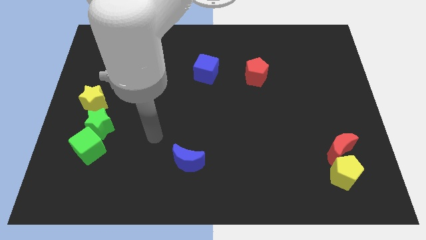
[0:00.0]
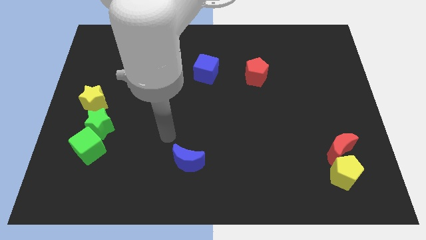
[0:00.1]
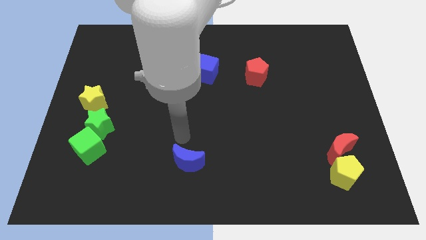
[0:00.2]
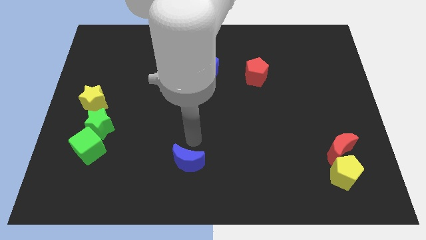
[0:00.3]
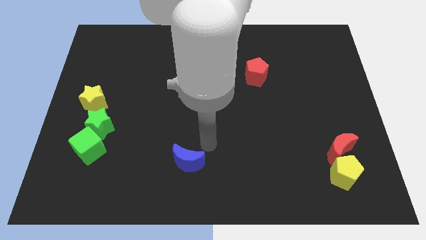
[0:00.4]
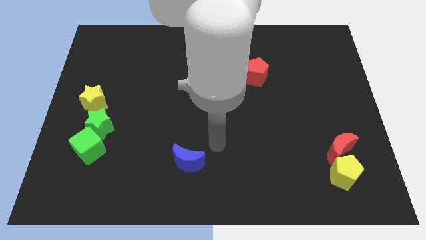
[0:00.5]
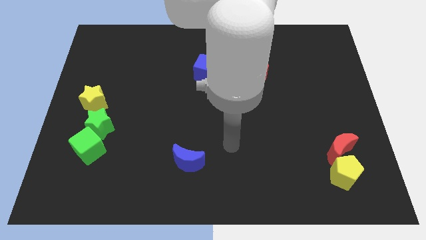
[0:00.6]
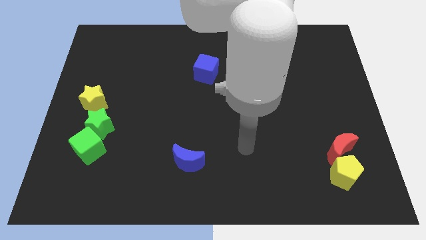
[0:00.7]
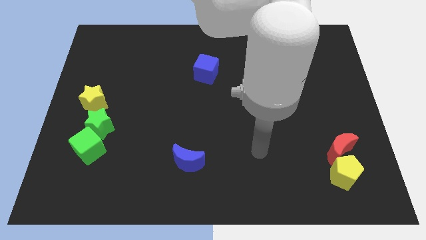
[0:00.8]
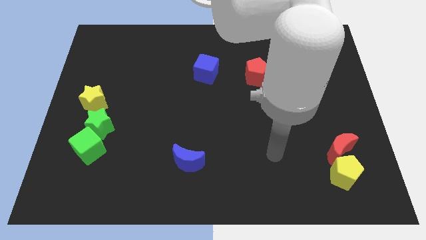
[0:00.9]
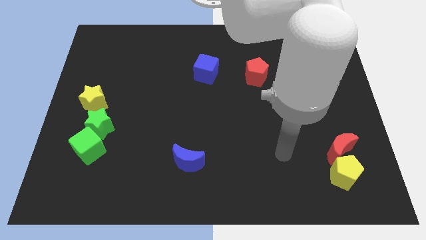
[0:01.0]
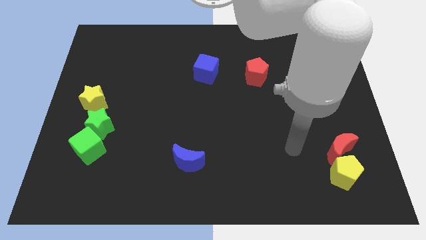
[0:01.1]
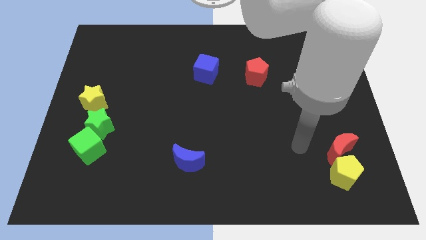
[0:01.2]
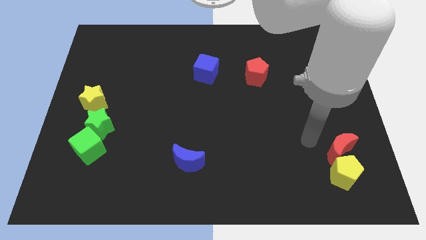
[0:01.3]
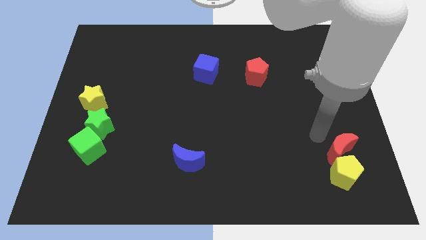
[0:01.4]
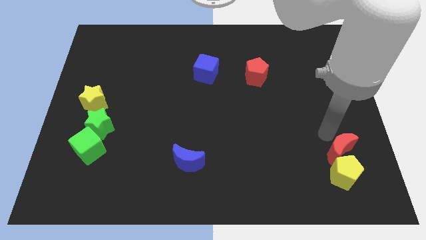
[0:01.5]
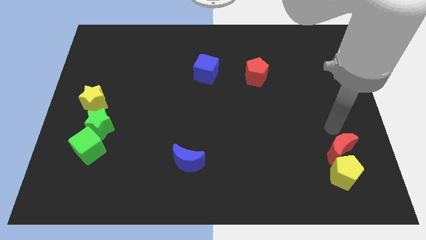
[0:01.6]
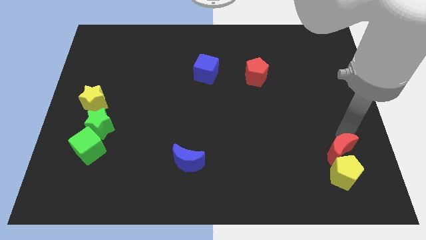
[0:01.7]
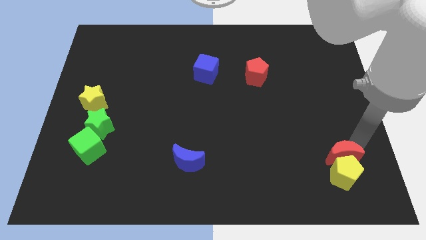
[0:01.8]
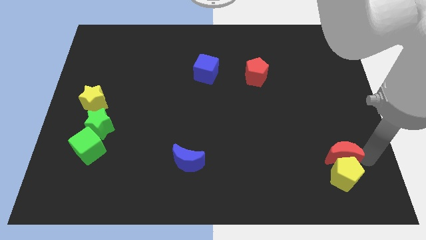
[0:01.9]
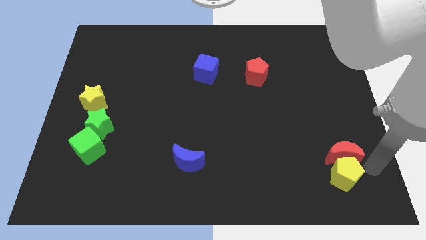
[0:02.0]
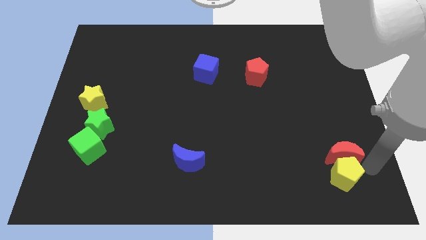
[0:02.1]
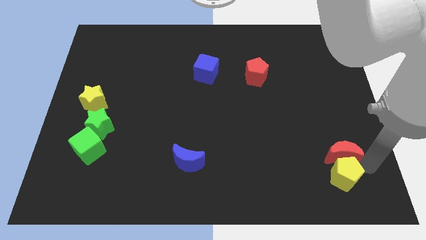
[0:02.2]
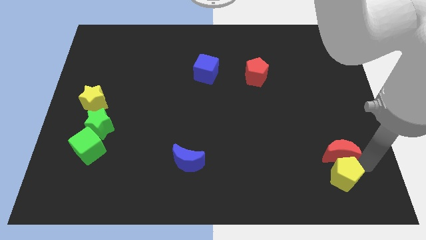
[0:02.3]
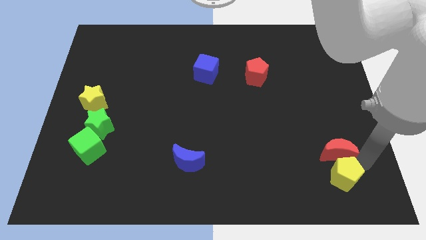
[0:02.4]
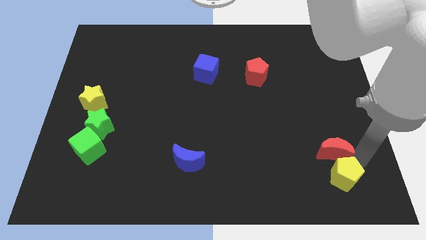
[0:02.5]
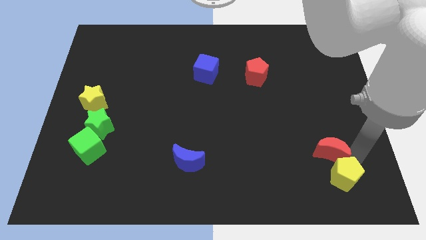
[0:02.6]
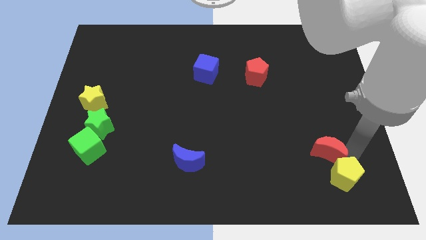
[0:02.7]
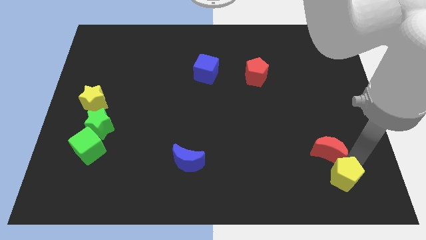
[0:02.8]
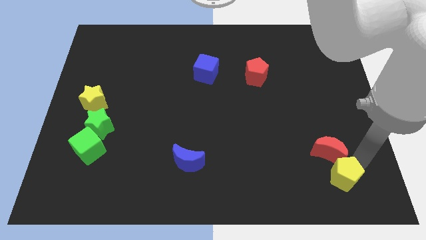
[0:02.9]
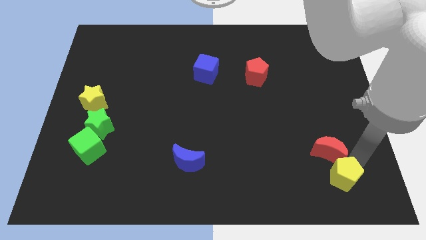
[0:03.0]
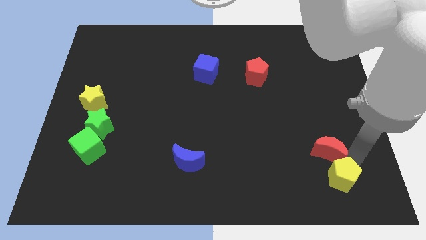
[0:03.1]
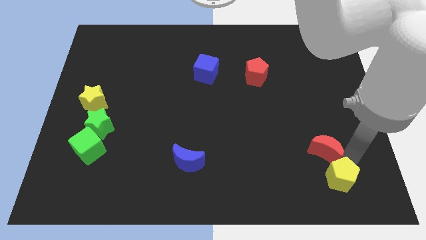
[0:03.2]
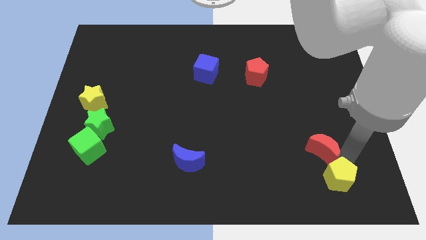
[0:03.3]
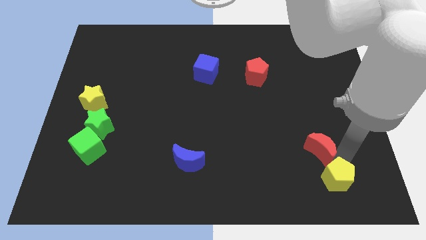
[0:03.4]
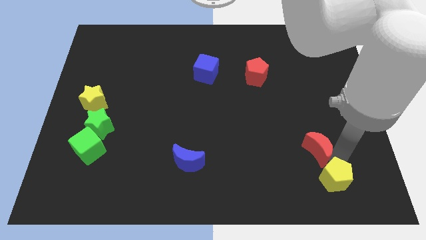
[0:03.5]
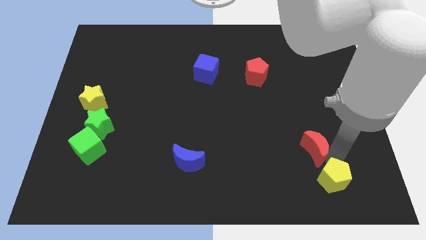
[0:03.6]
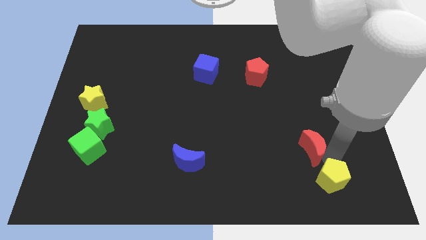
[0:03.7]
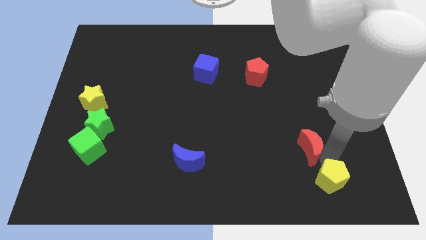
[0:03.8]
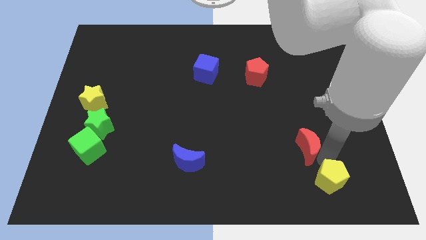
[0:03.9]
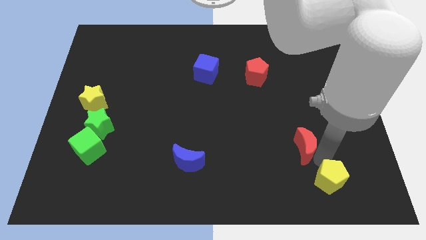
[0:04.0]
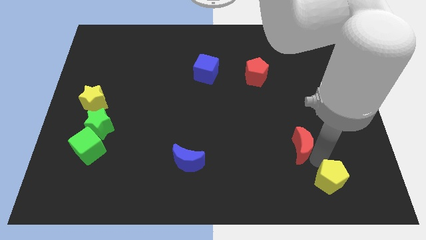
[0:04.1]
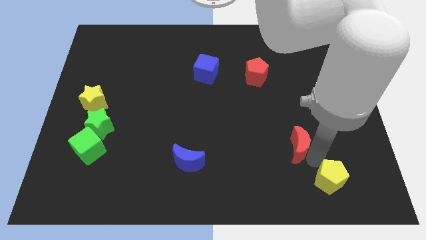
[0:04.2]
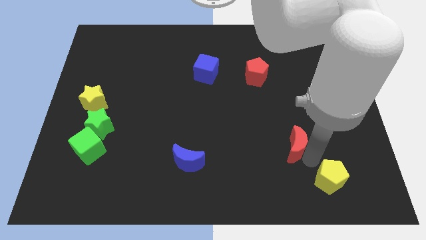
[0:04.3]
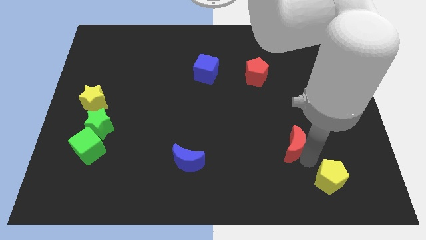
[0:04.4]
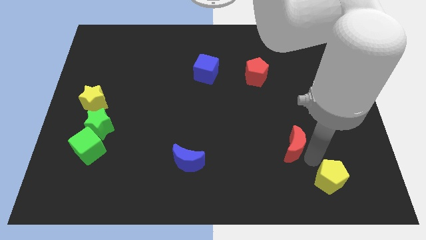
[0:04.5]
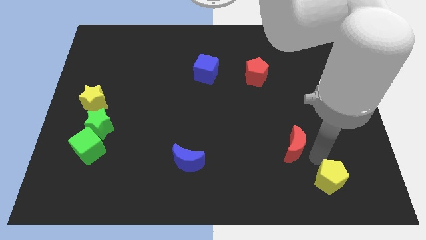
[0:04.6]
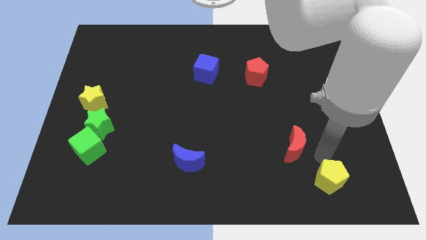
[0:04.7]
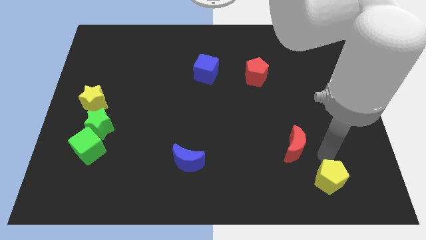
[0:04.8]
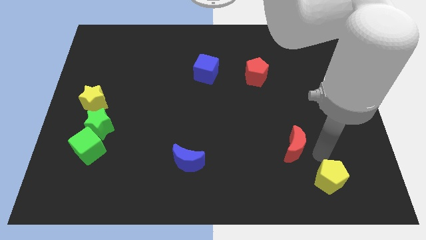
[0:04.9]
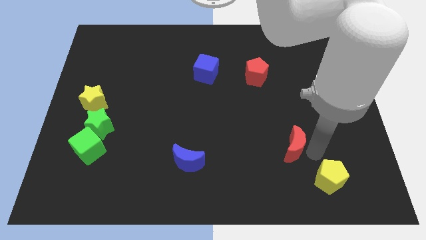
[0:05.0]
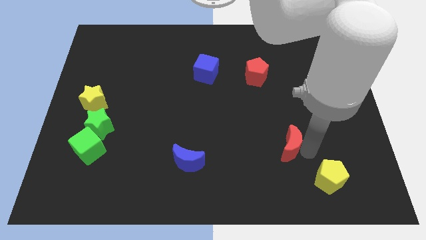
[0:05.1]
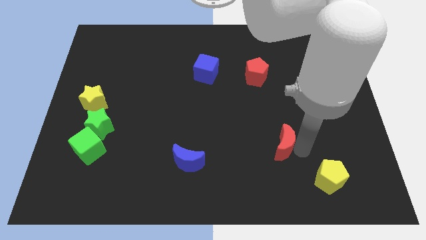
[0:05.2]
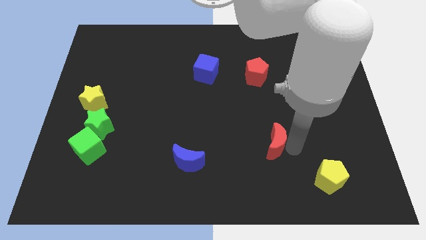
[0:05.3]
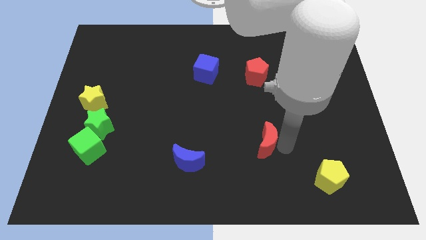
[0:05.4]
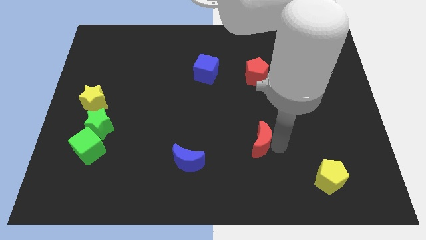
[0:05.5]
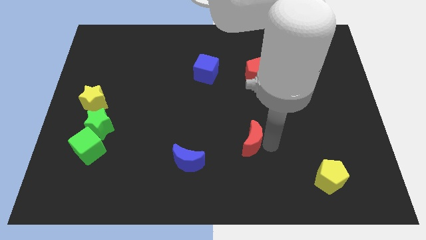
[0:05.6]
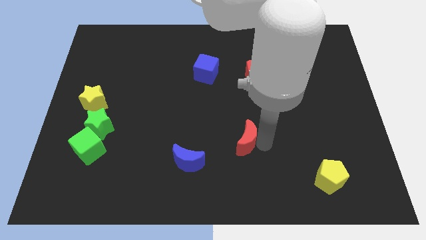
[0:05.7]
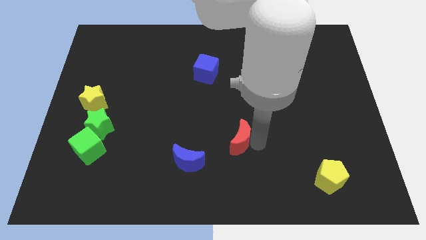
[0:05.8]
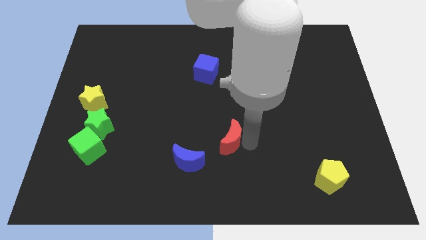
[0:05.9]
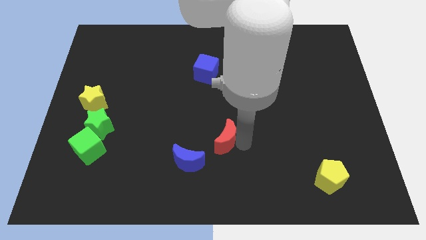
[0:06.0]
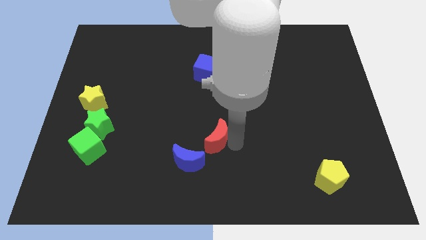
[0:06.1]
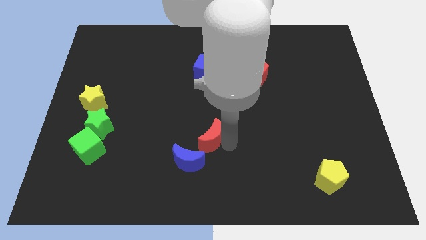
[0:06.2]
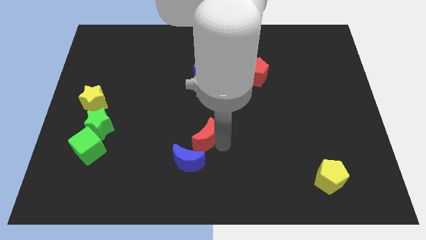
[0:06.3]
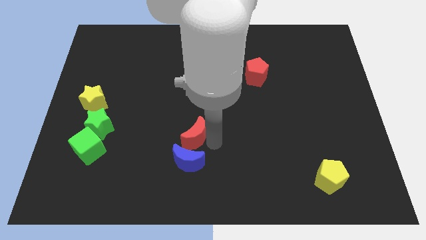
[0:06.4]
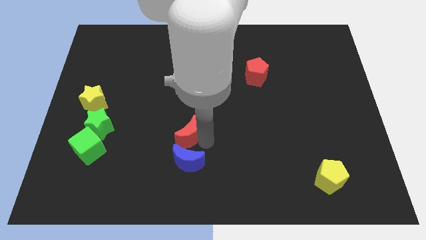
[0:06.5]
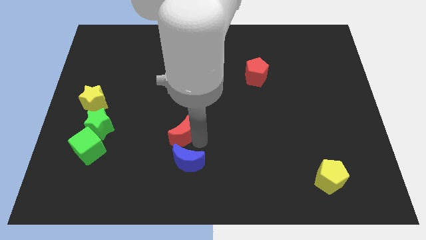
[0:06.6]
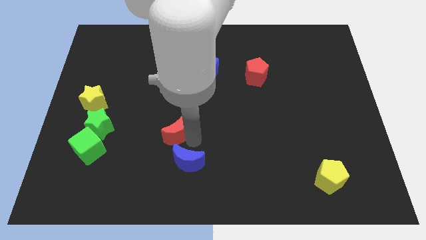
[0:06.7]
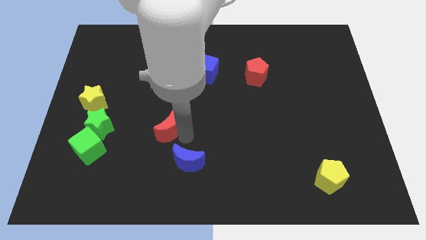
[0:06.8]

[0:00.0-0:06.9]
push the red moon to the right of the green star
